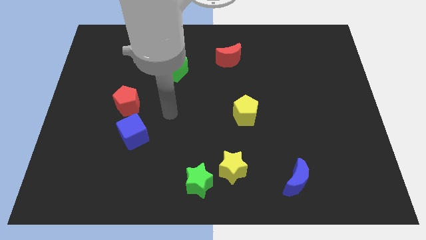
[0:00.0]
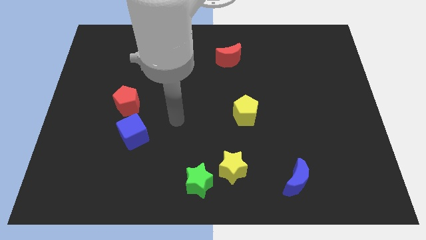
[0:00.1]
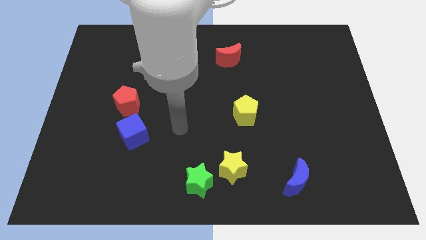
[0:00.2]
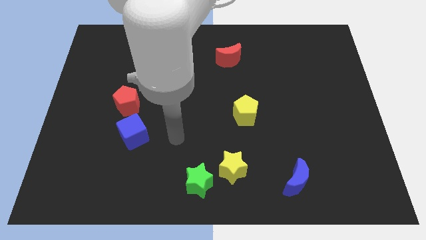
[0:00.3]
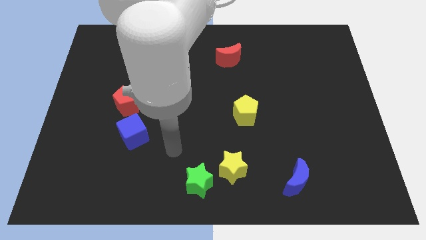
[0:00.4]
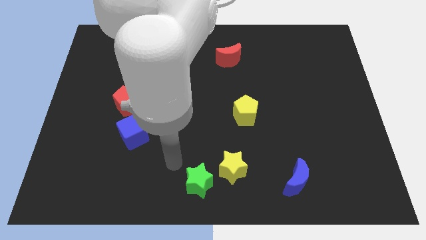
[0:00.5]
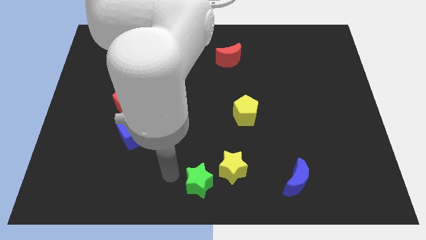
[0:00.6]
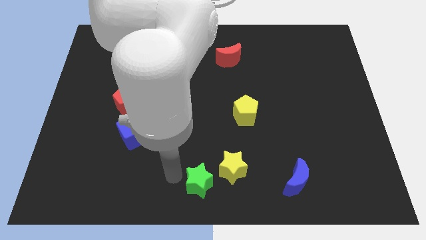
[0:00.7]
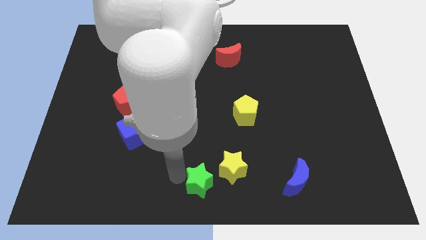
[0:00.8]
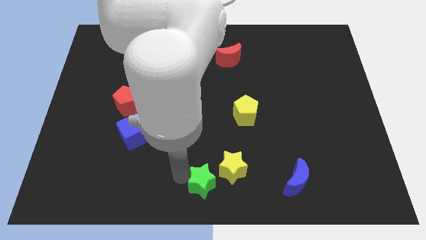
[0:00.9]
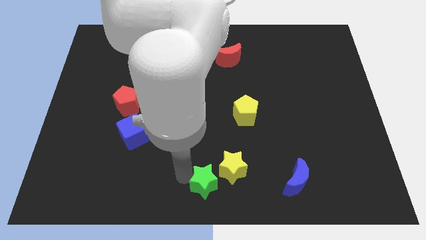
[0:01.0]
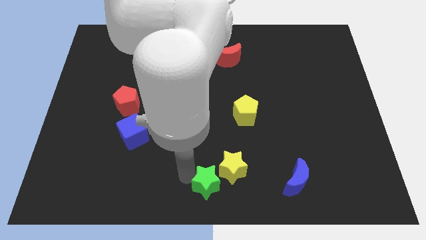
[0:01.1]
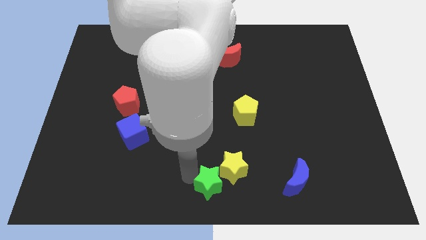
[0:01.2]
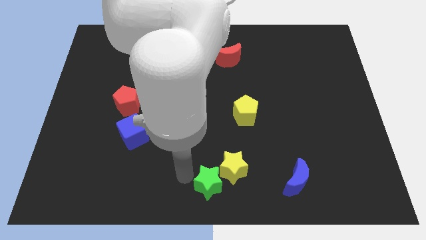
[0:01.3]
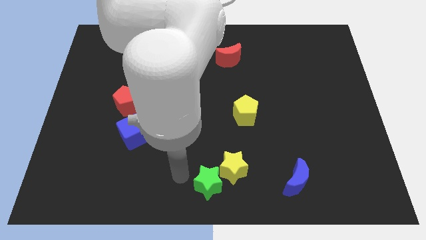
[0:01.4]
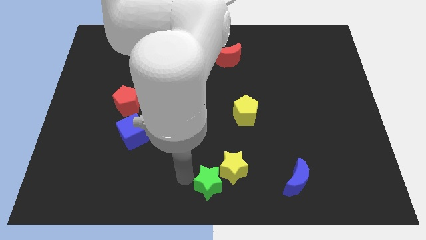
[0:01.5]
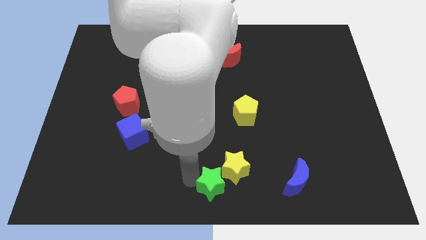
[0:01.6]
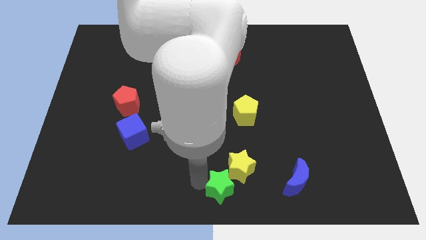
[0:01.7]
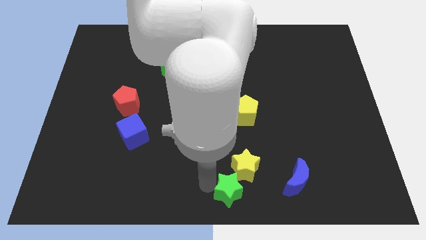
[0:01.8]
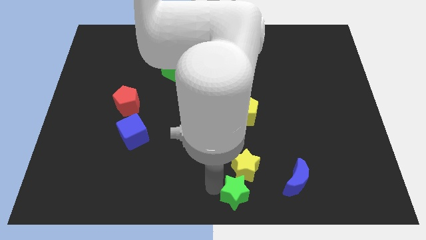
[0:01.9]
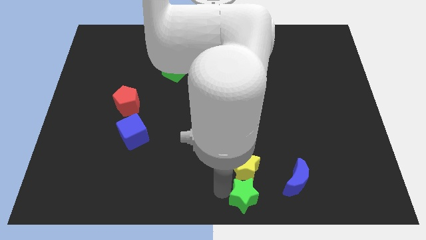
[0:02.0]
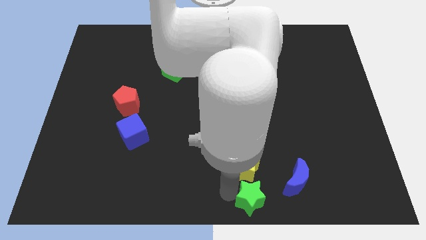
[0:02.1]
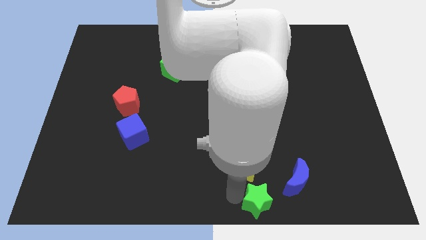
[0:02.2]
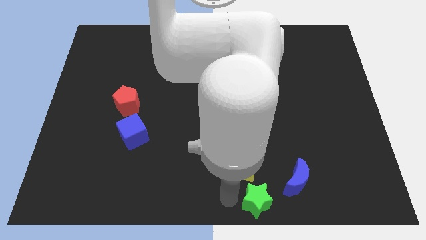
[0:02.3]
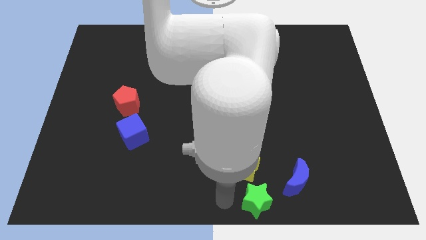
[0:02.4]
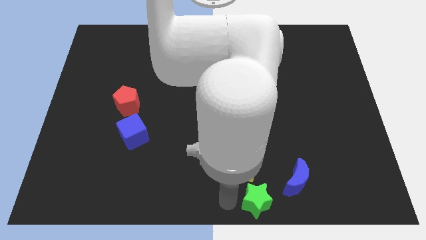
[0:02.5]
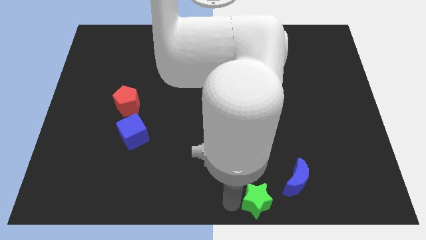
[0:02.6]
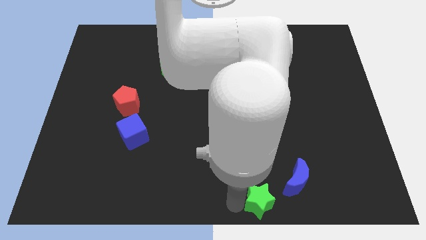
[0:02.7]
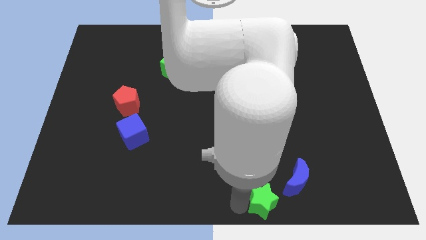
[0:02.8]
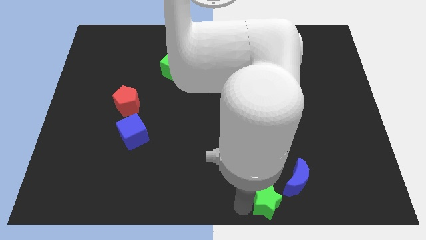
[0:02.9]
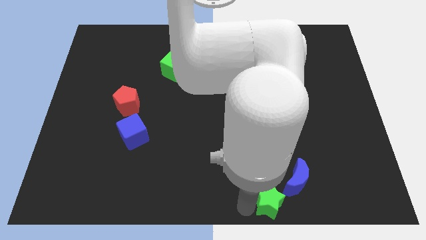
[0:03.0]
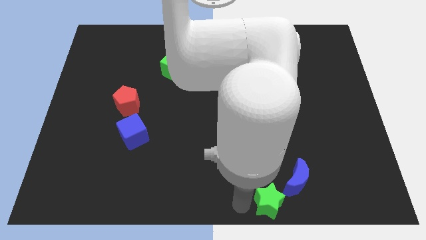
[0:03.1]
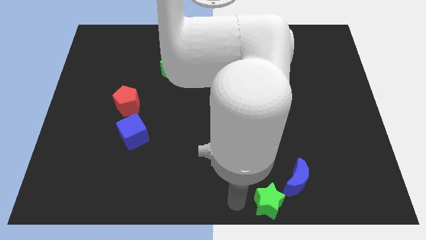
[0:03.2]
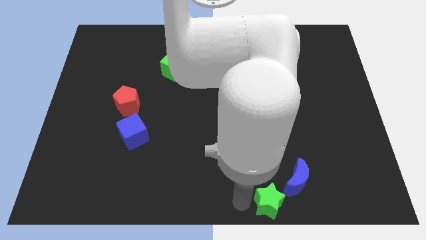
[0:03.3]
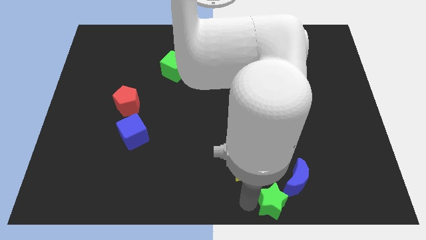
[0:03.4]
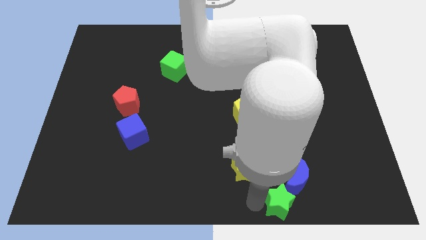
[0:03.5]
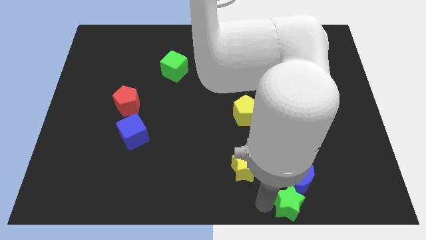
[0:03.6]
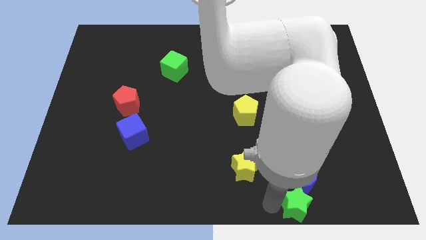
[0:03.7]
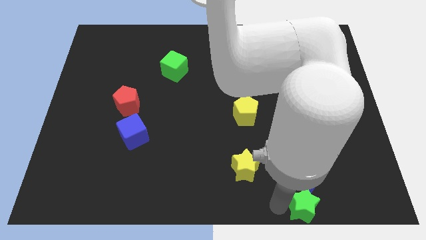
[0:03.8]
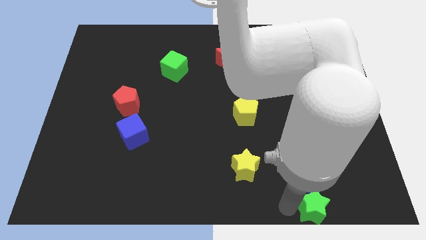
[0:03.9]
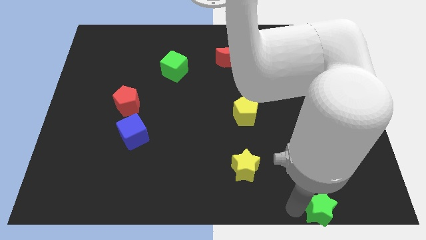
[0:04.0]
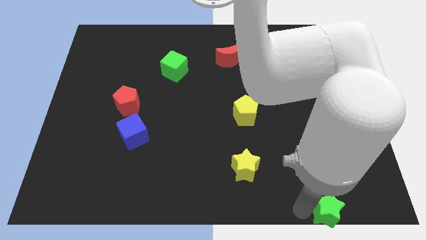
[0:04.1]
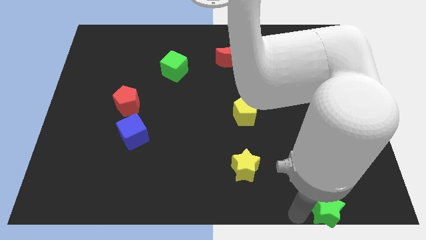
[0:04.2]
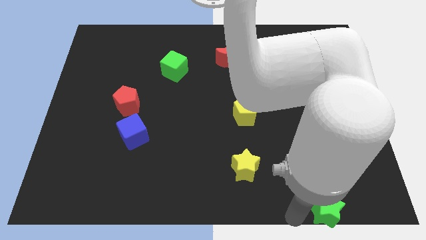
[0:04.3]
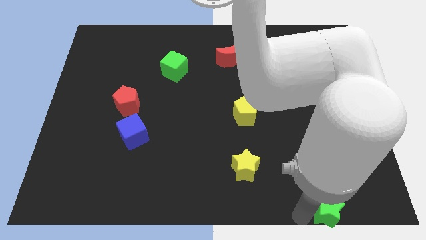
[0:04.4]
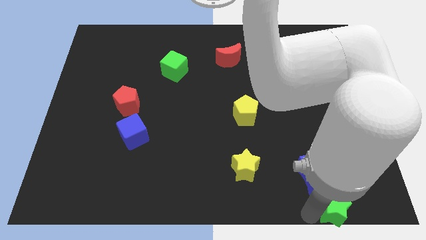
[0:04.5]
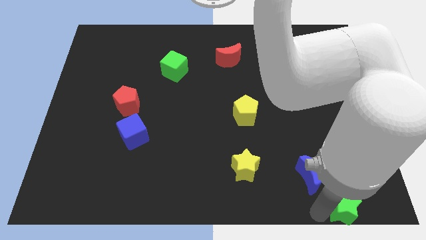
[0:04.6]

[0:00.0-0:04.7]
push the green star to the bottom right corner

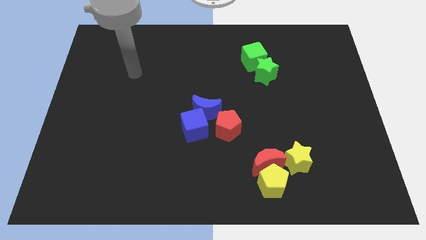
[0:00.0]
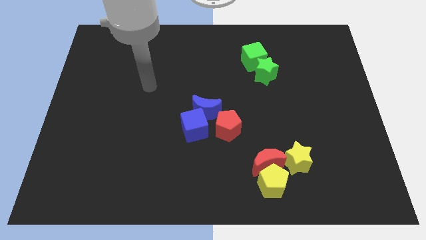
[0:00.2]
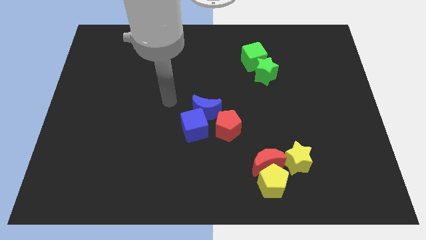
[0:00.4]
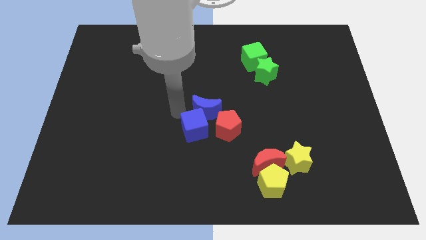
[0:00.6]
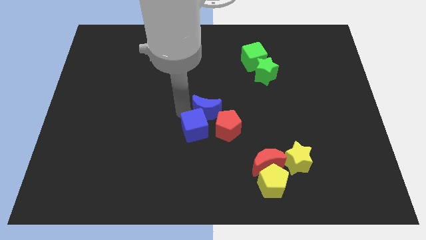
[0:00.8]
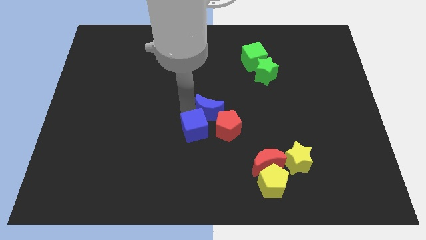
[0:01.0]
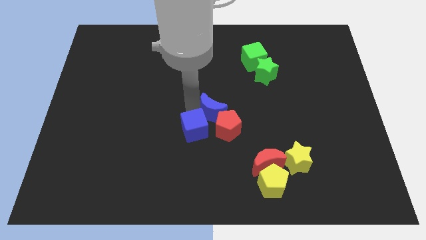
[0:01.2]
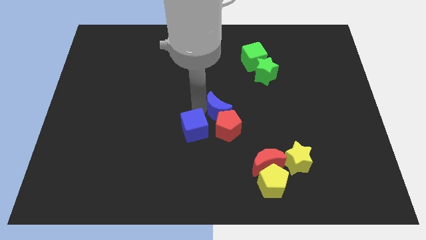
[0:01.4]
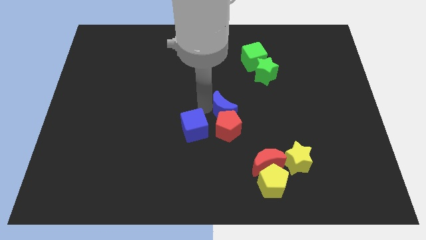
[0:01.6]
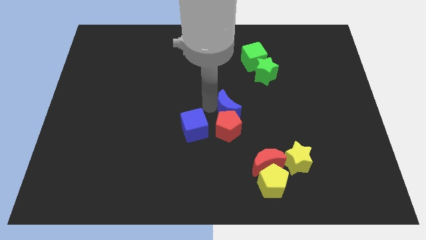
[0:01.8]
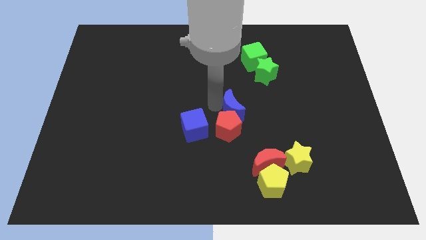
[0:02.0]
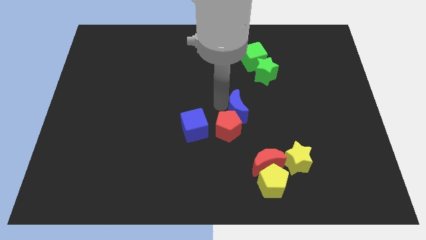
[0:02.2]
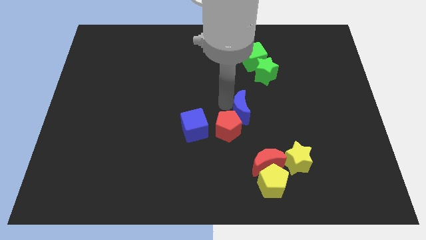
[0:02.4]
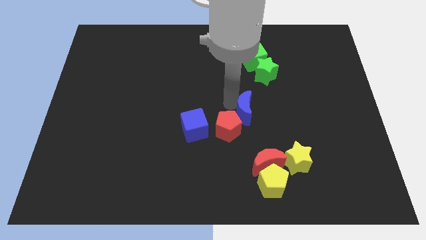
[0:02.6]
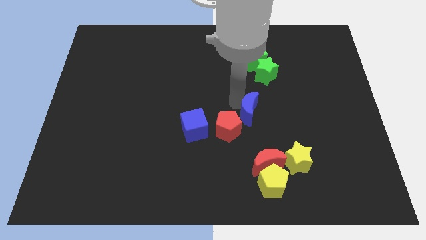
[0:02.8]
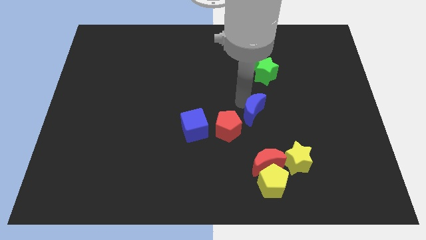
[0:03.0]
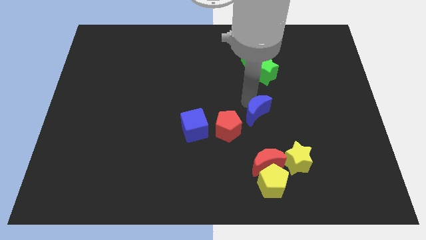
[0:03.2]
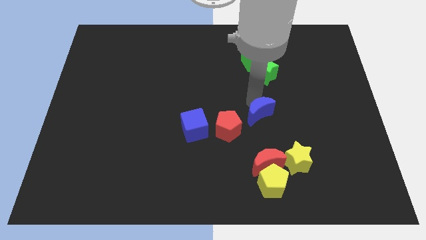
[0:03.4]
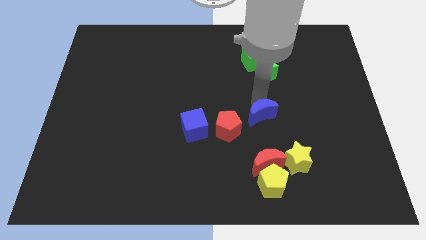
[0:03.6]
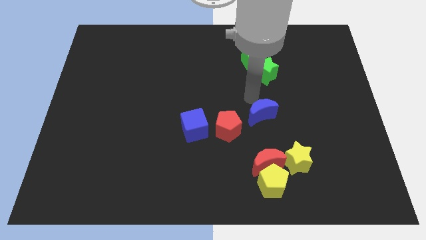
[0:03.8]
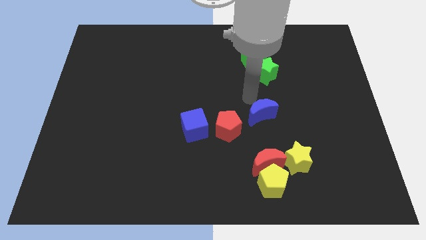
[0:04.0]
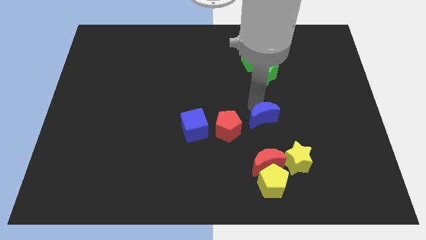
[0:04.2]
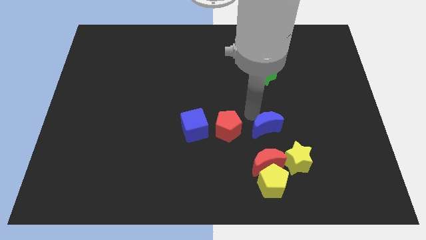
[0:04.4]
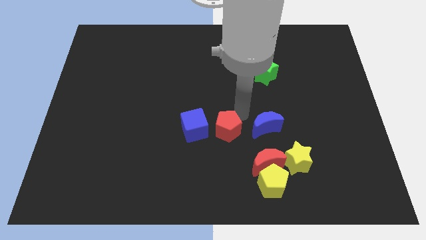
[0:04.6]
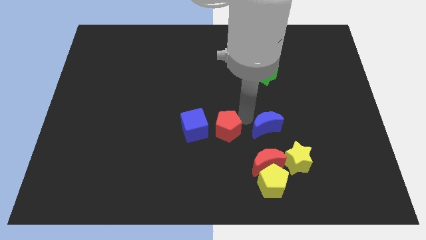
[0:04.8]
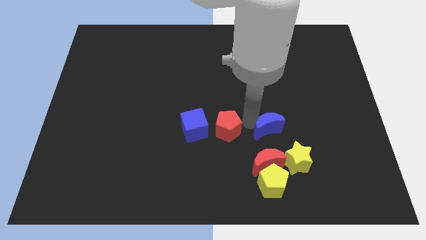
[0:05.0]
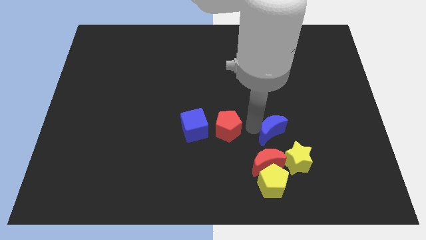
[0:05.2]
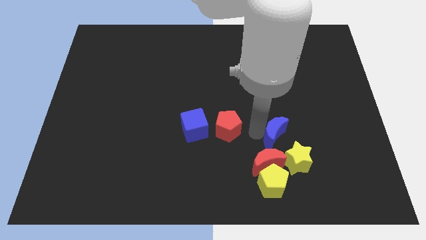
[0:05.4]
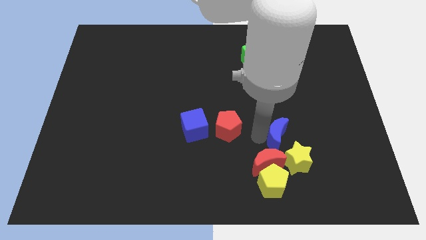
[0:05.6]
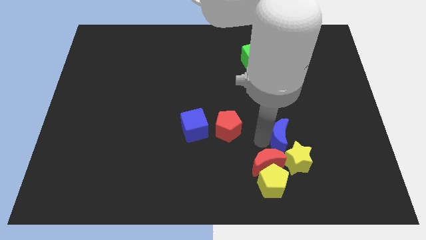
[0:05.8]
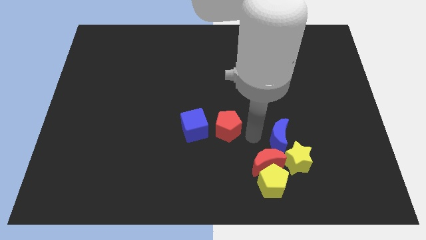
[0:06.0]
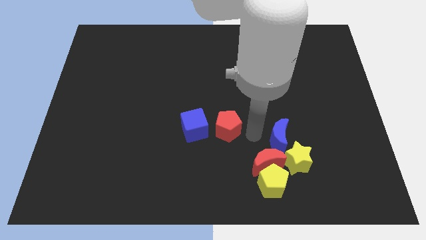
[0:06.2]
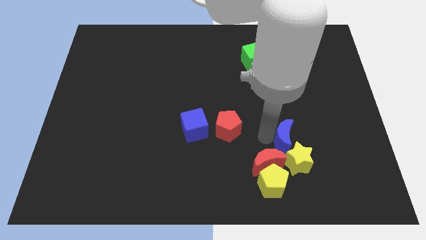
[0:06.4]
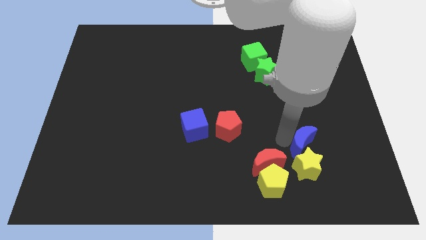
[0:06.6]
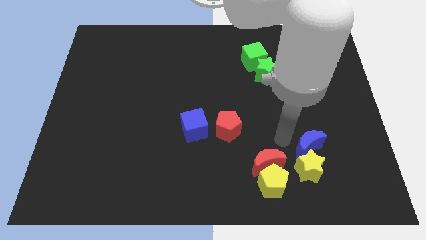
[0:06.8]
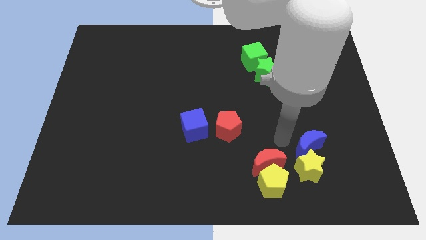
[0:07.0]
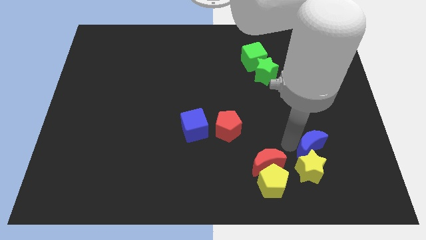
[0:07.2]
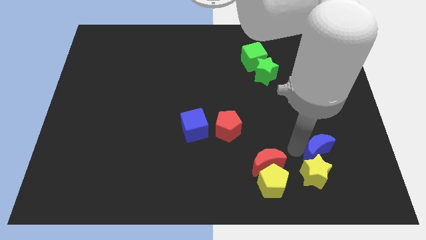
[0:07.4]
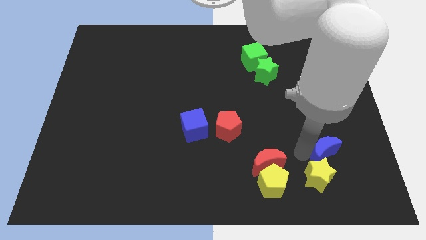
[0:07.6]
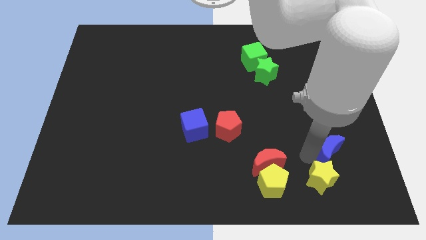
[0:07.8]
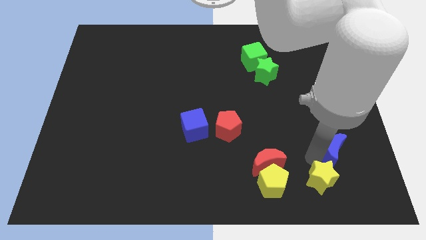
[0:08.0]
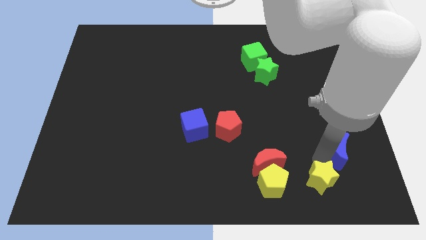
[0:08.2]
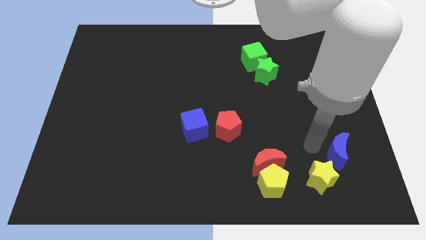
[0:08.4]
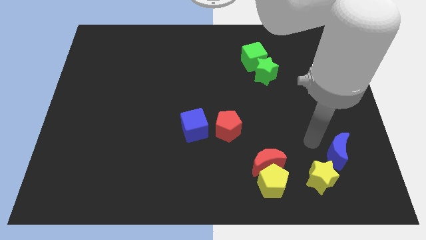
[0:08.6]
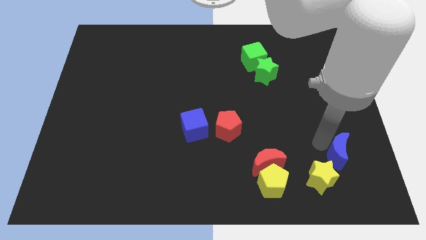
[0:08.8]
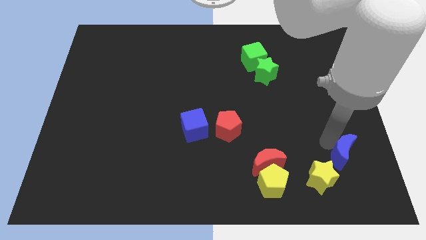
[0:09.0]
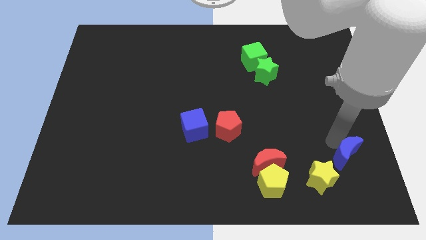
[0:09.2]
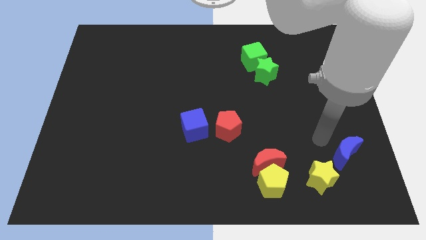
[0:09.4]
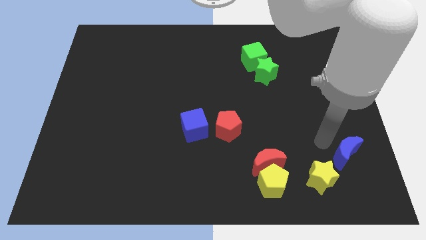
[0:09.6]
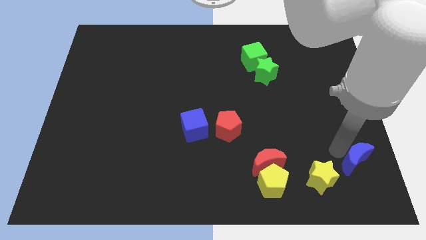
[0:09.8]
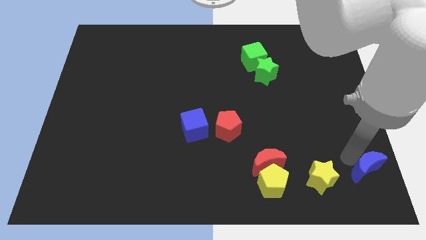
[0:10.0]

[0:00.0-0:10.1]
push the blue moon to the bottom right corner
